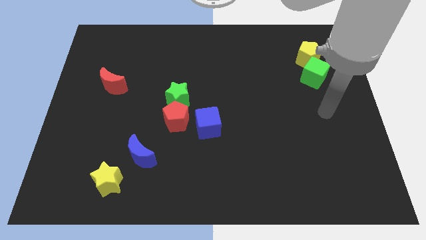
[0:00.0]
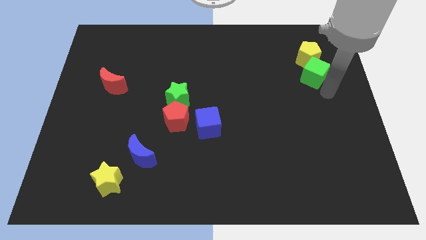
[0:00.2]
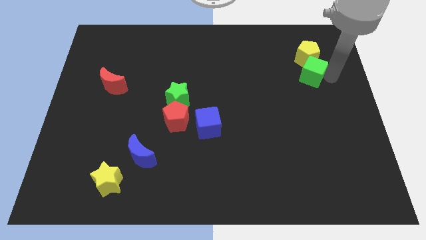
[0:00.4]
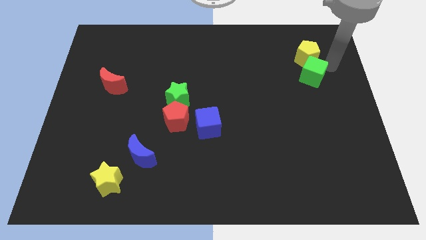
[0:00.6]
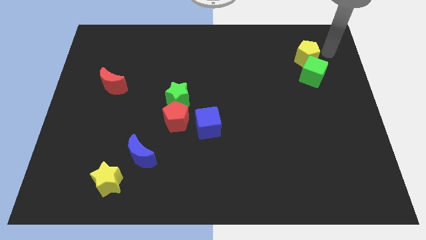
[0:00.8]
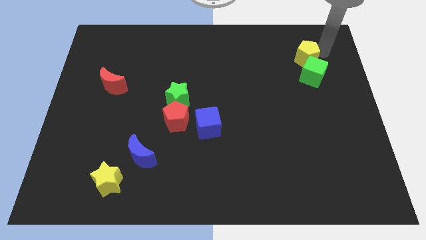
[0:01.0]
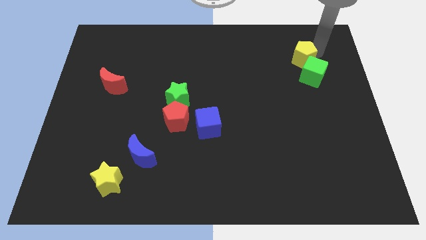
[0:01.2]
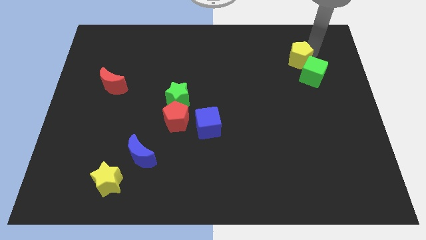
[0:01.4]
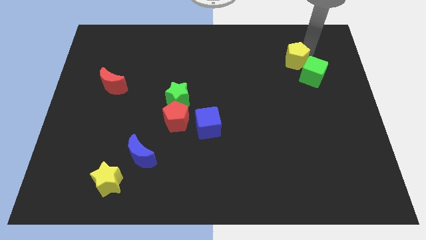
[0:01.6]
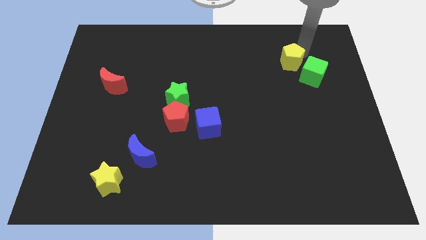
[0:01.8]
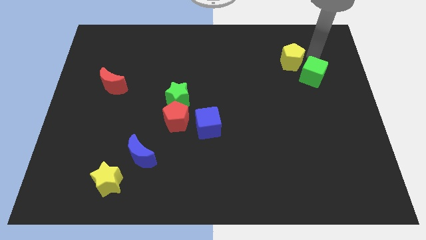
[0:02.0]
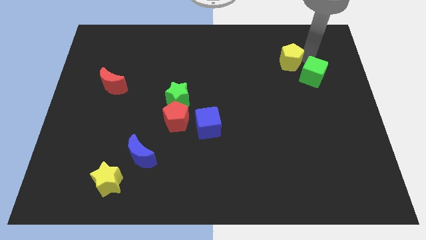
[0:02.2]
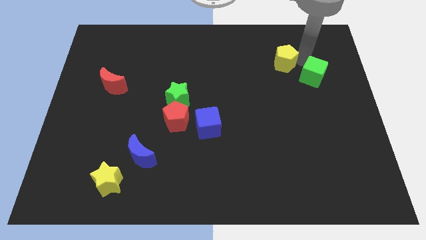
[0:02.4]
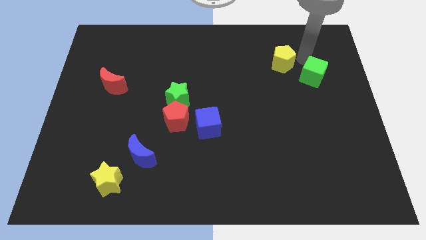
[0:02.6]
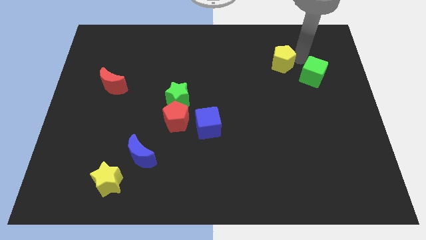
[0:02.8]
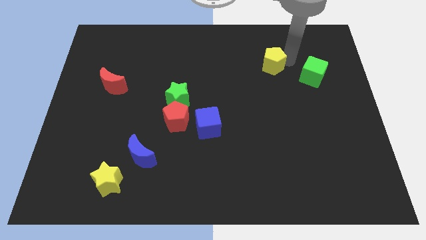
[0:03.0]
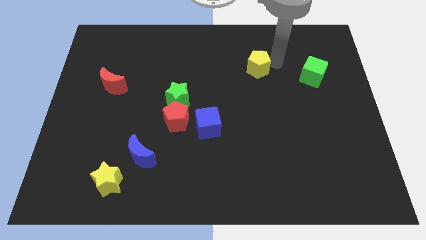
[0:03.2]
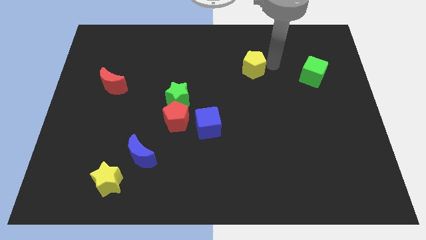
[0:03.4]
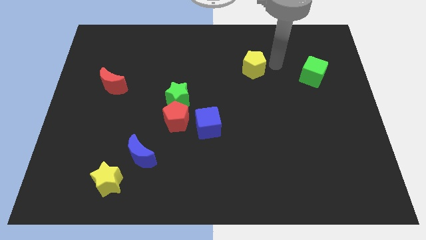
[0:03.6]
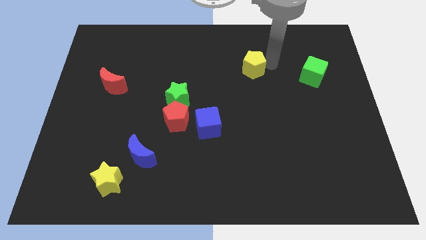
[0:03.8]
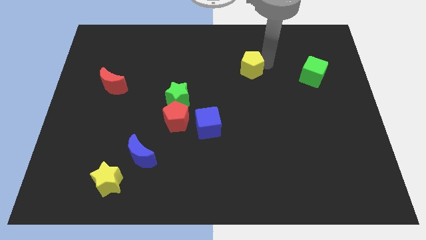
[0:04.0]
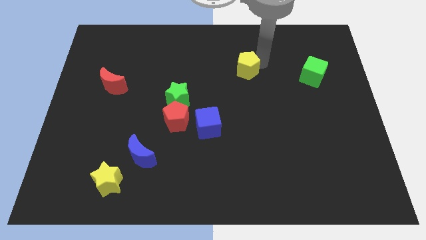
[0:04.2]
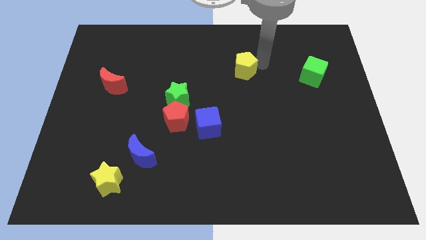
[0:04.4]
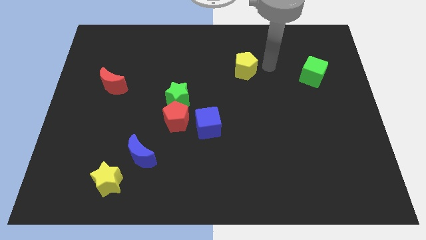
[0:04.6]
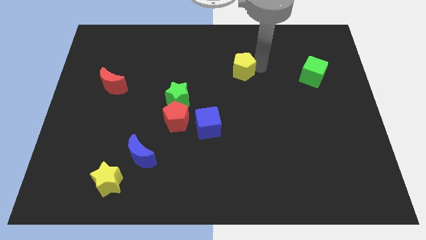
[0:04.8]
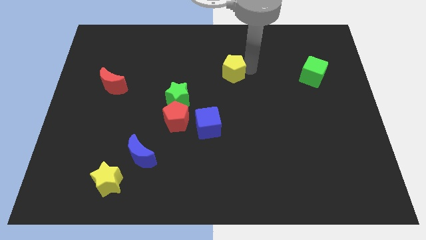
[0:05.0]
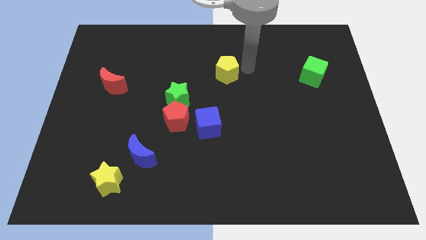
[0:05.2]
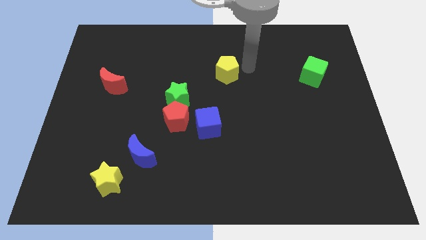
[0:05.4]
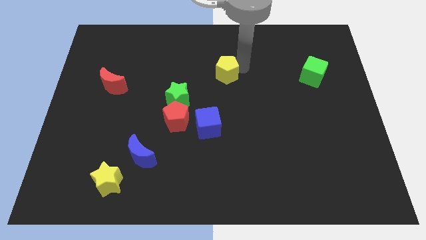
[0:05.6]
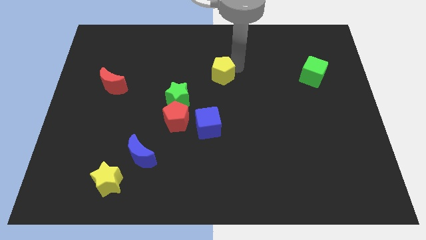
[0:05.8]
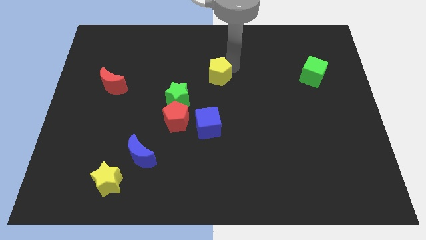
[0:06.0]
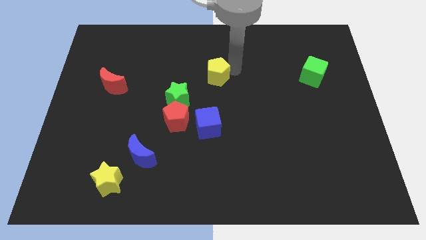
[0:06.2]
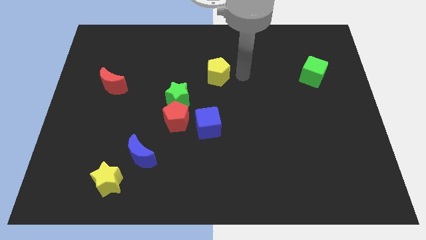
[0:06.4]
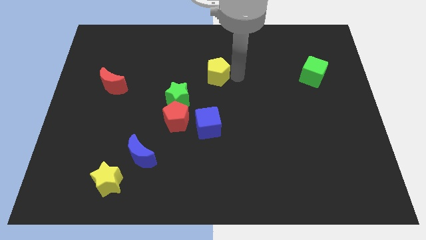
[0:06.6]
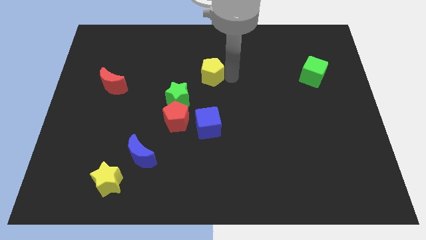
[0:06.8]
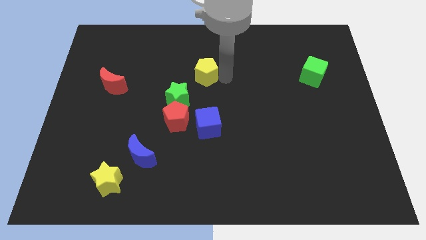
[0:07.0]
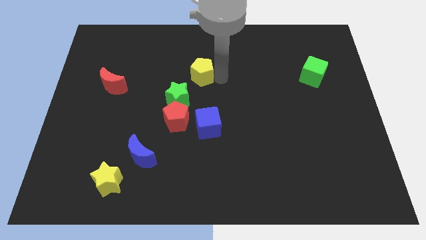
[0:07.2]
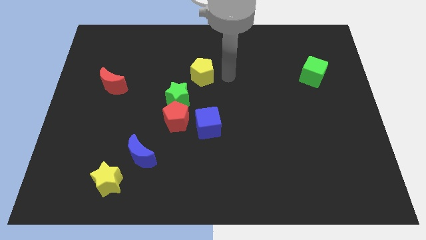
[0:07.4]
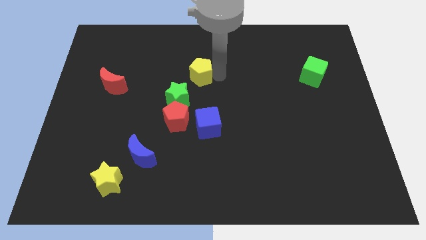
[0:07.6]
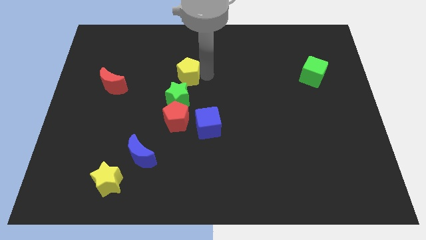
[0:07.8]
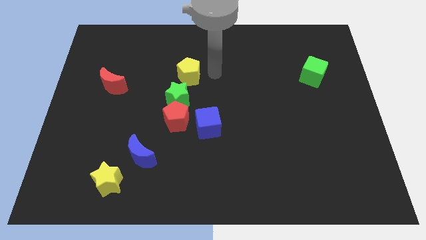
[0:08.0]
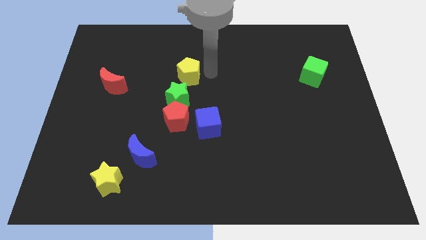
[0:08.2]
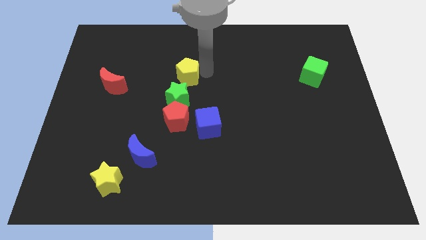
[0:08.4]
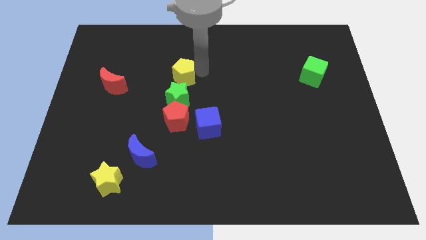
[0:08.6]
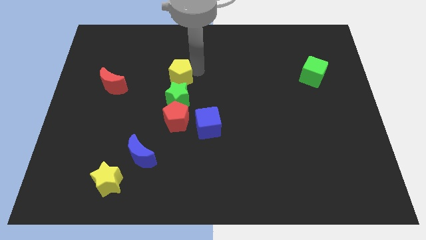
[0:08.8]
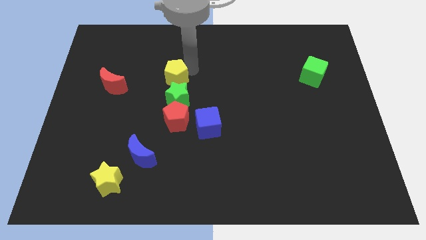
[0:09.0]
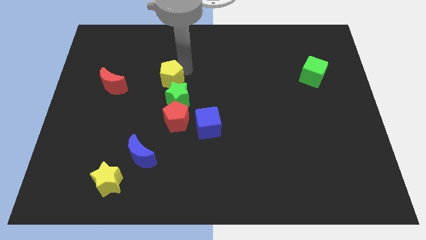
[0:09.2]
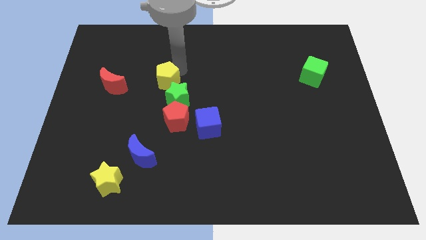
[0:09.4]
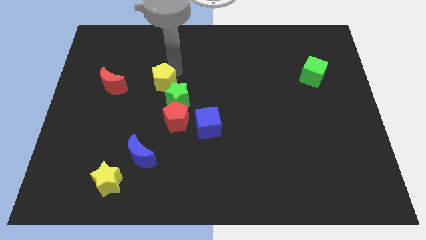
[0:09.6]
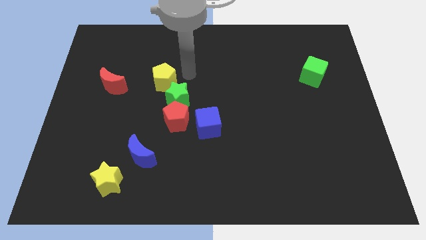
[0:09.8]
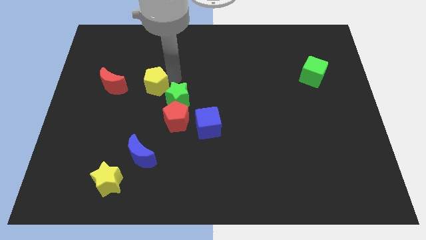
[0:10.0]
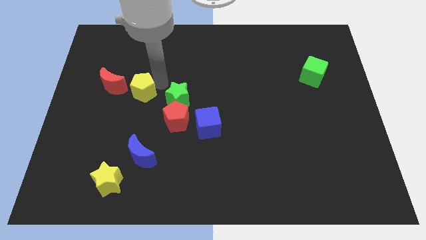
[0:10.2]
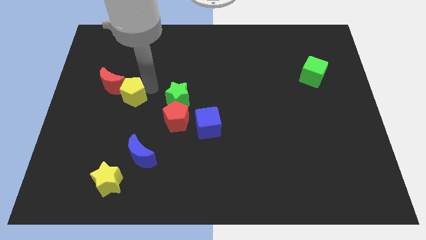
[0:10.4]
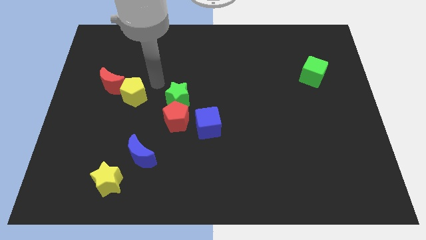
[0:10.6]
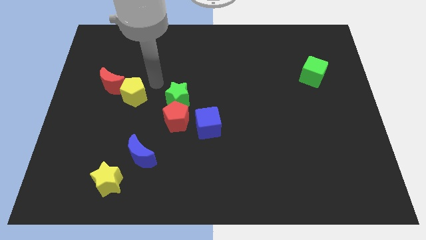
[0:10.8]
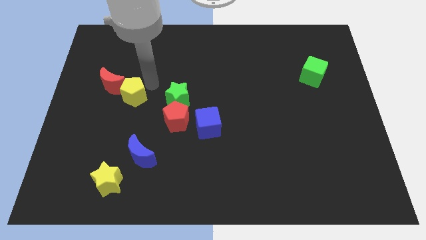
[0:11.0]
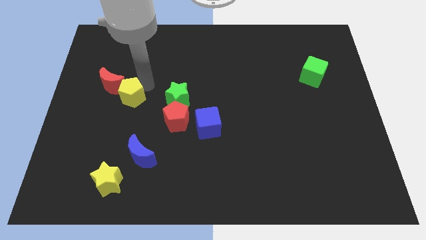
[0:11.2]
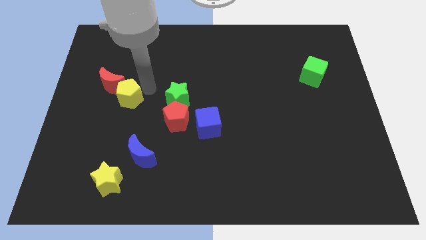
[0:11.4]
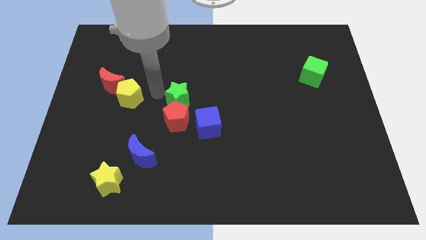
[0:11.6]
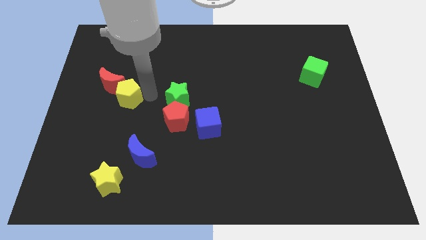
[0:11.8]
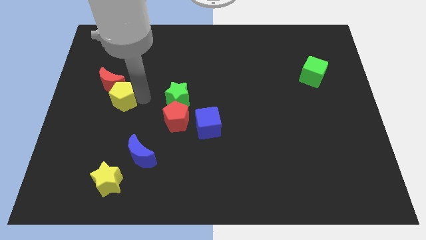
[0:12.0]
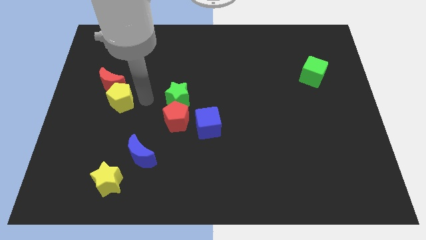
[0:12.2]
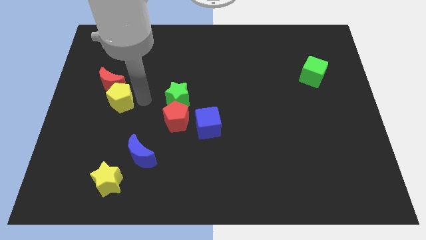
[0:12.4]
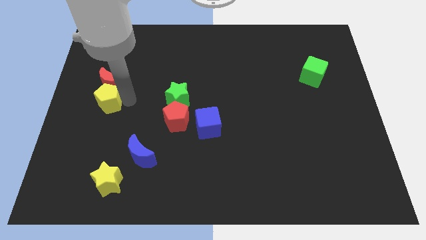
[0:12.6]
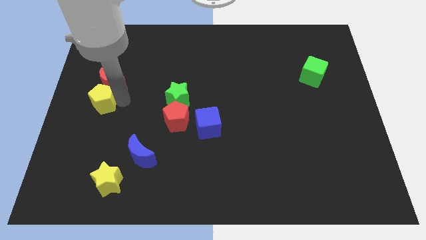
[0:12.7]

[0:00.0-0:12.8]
put the yellow pentagon to the center left
